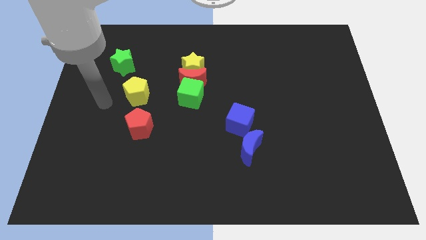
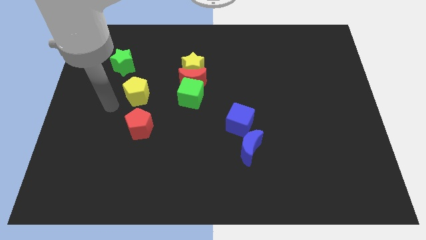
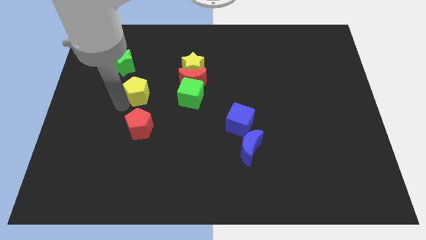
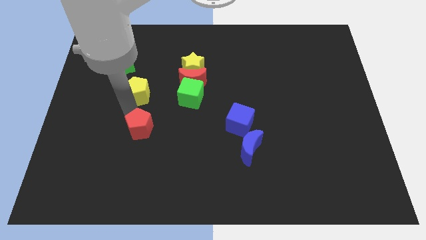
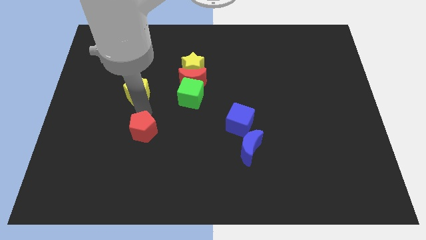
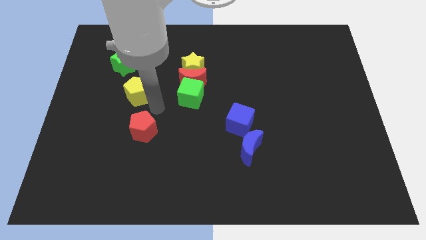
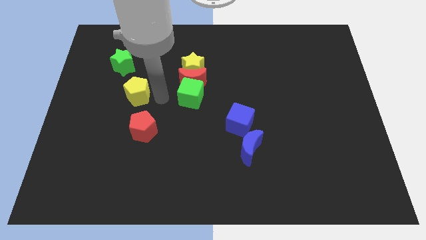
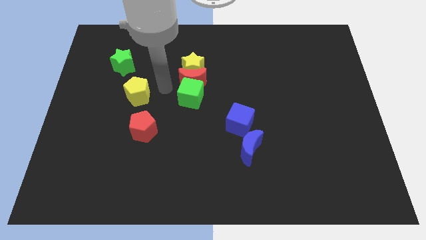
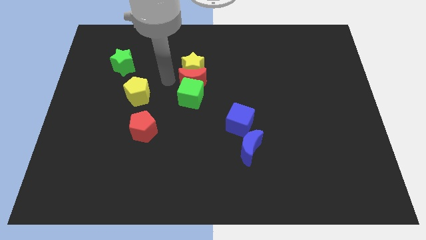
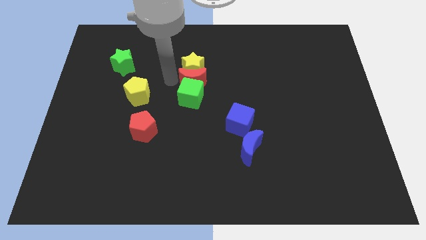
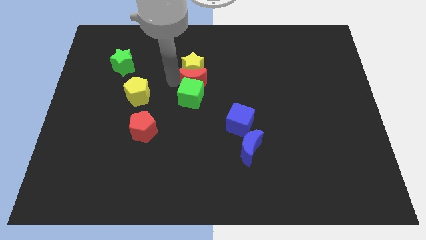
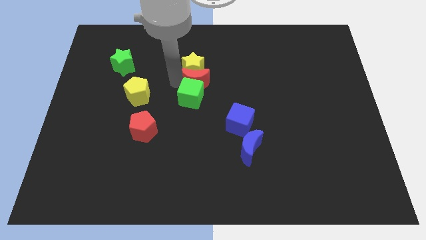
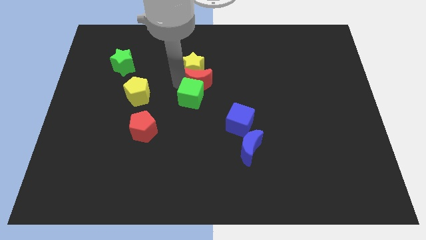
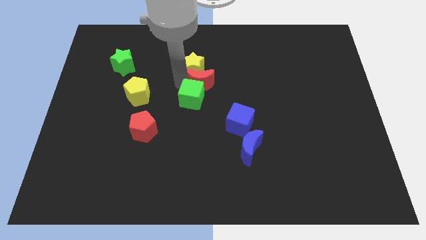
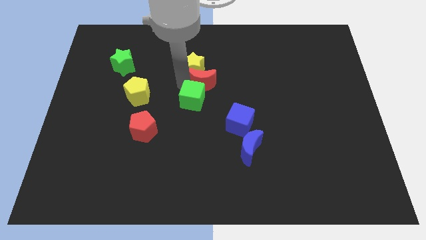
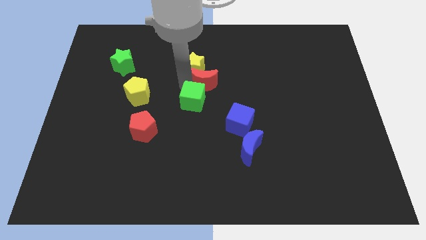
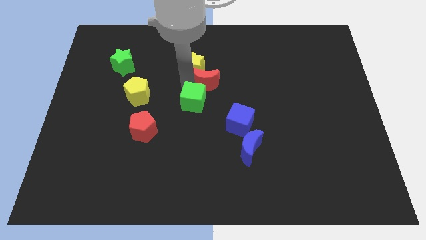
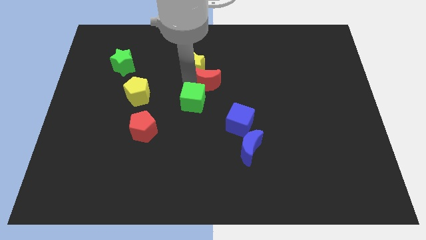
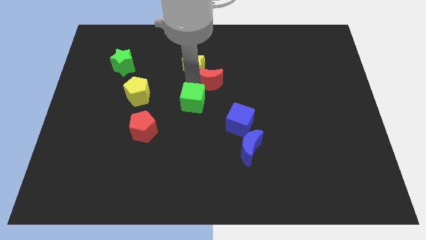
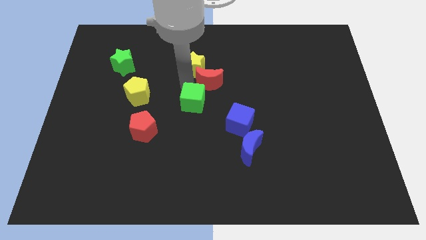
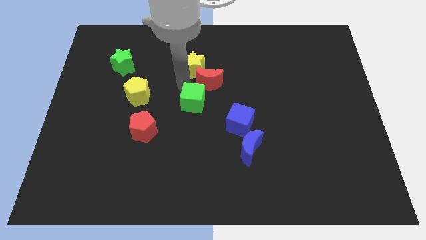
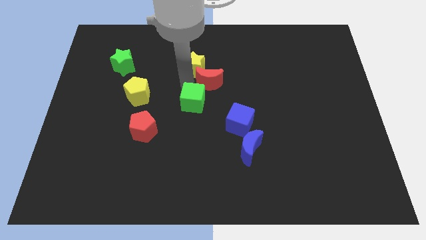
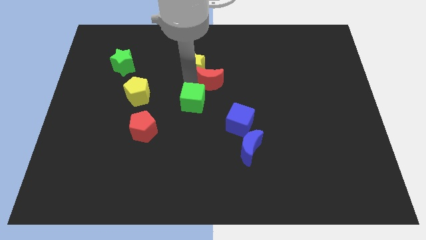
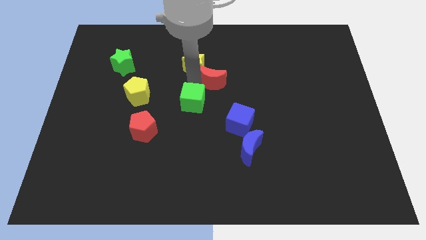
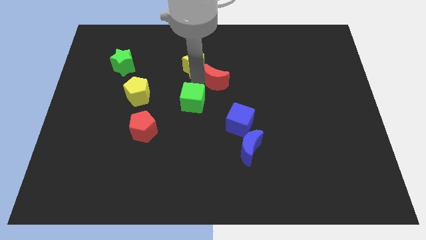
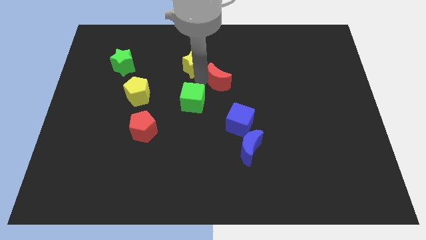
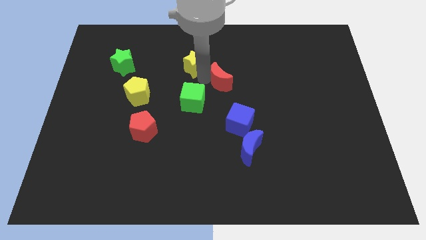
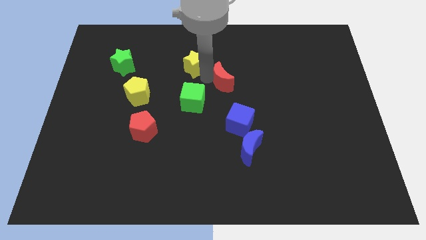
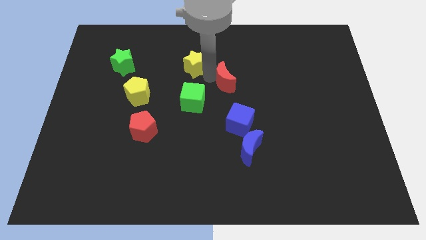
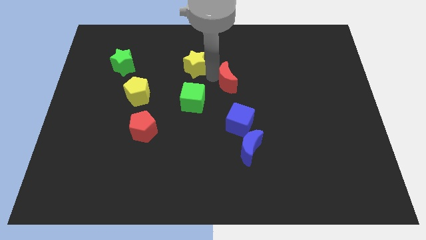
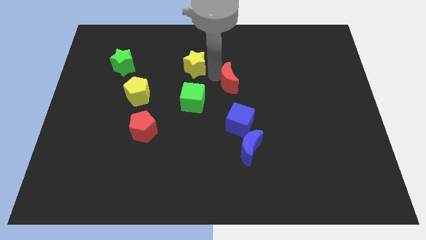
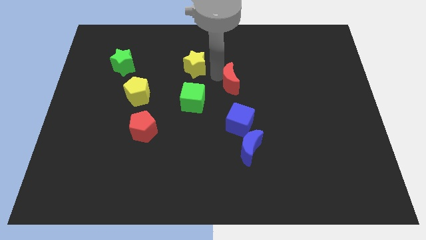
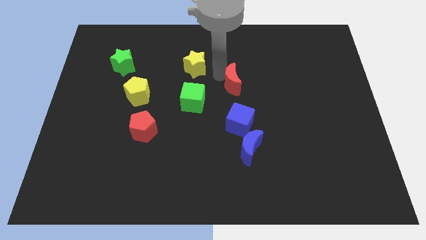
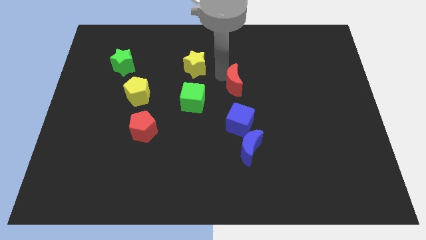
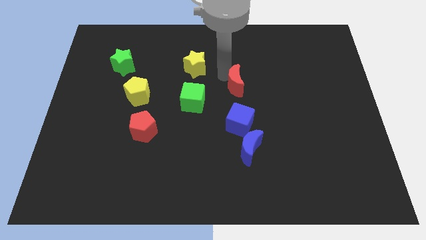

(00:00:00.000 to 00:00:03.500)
pull the red moon apart from the green cube and yellow star

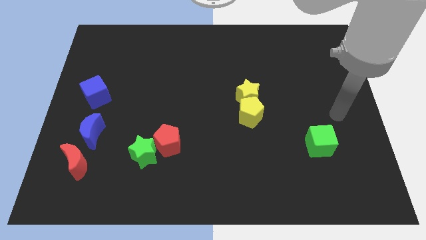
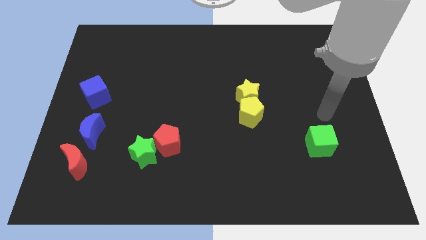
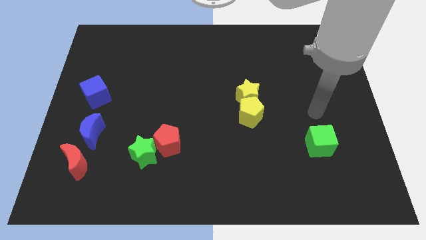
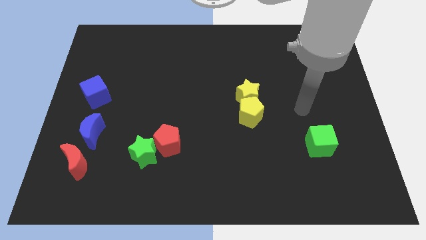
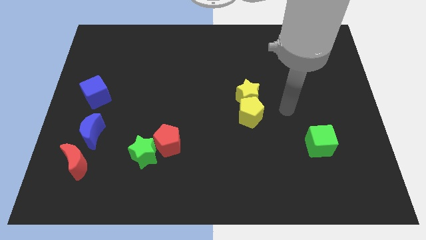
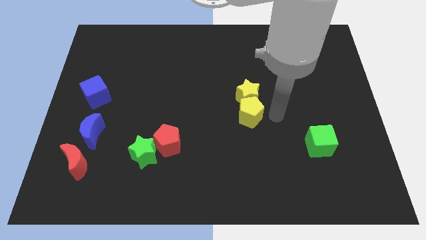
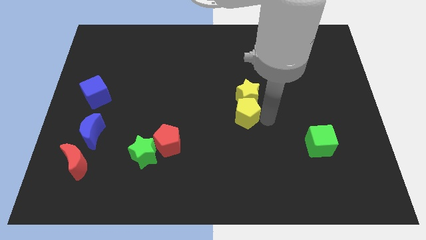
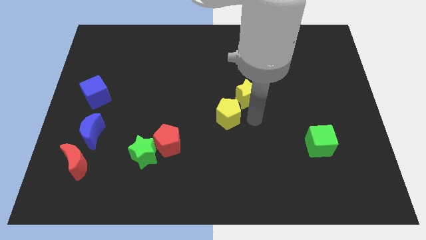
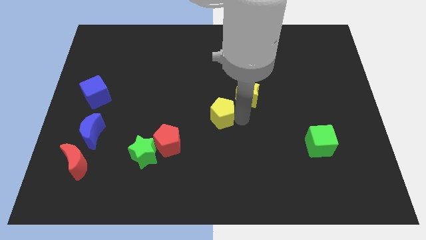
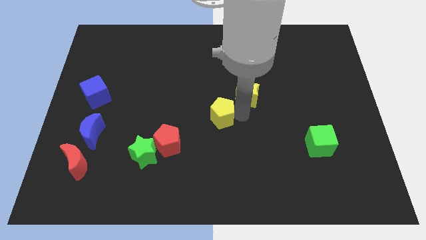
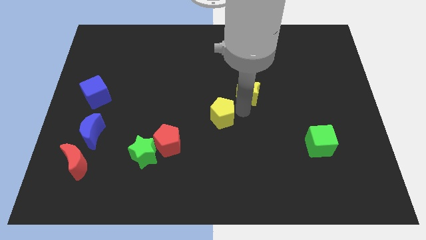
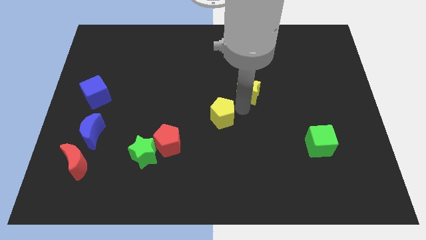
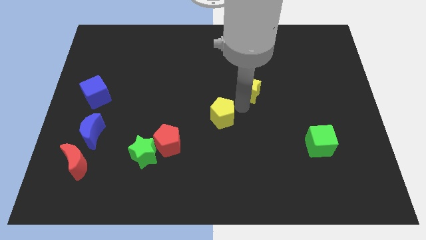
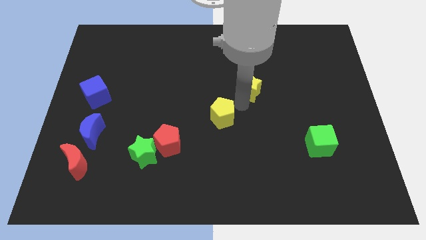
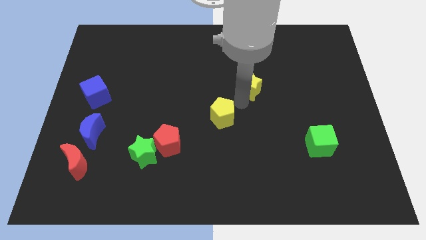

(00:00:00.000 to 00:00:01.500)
pull the yellow star apart from the yellow pentagon

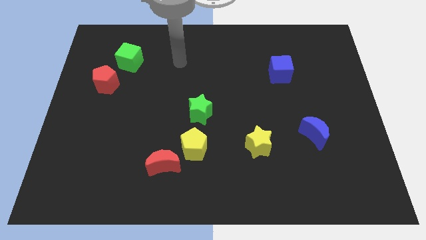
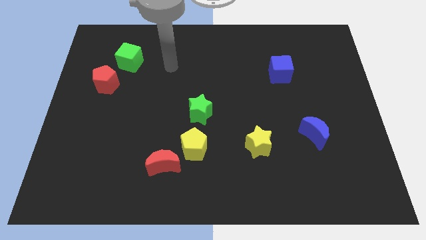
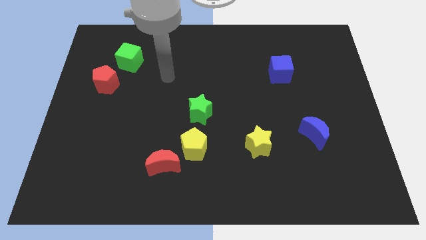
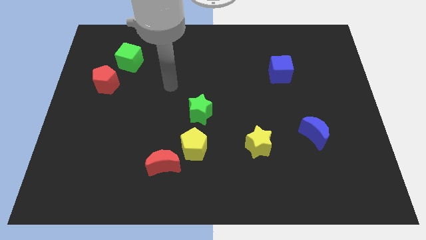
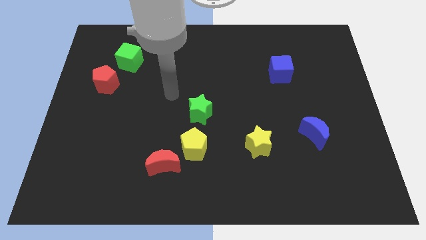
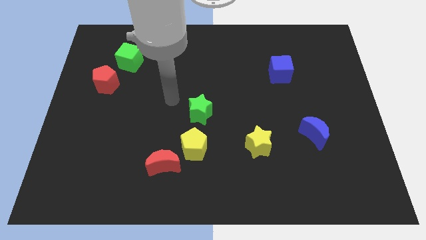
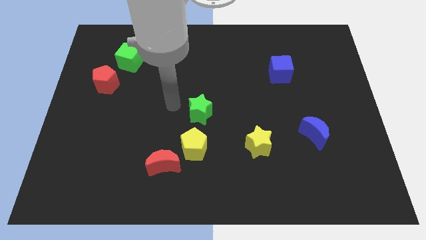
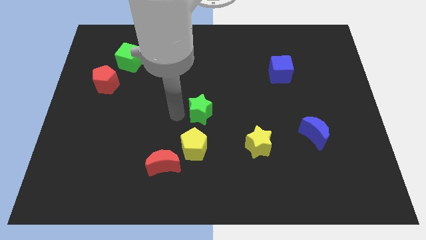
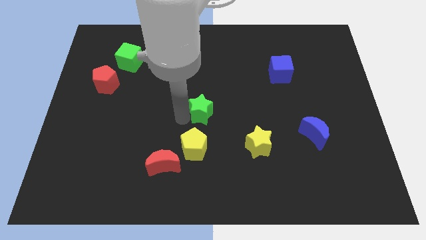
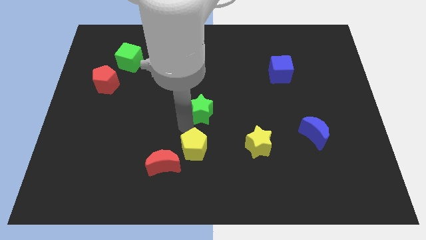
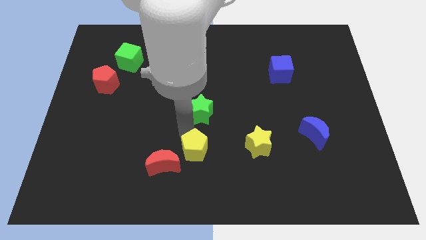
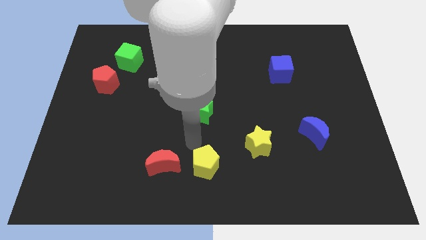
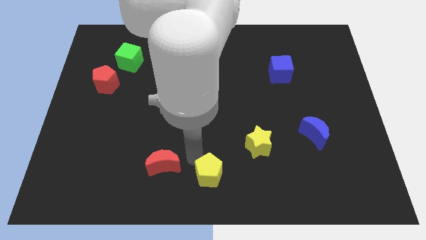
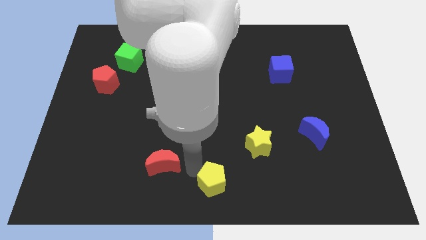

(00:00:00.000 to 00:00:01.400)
pull the red moon apart from the yellow pentagon

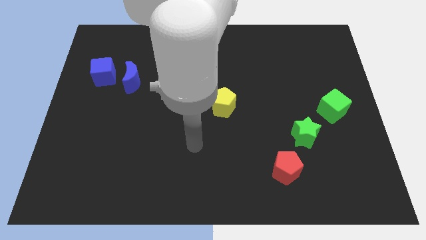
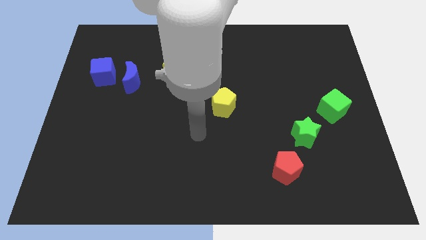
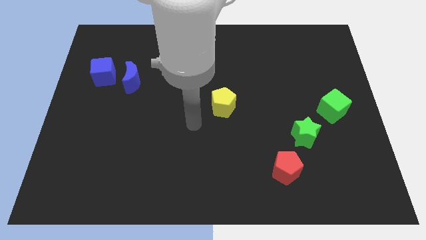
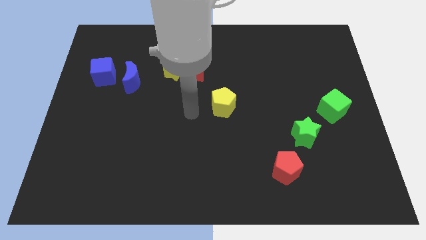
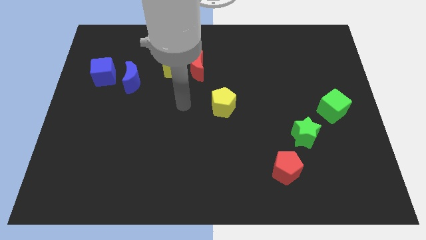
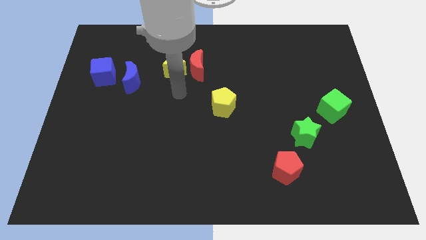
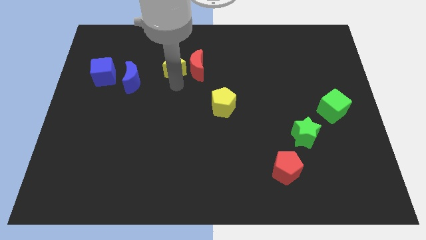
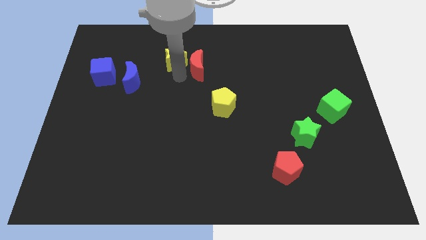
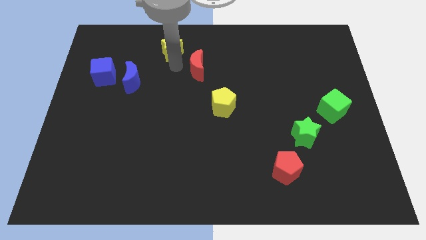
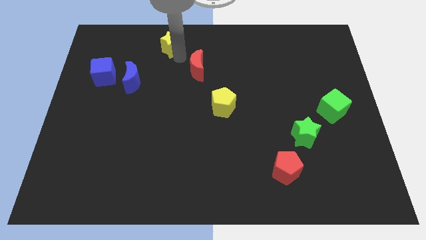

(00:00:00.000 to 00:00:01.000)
pull the red moon apart from the yellow star

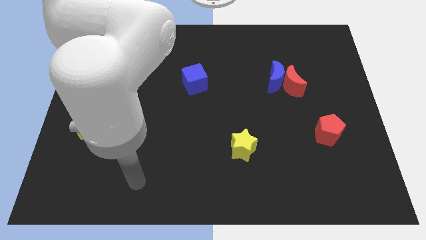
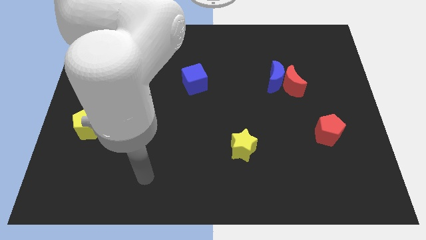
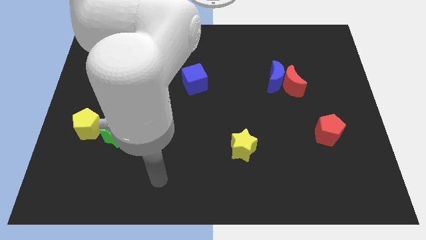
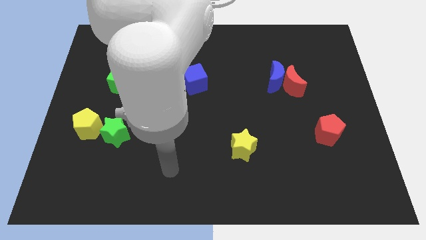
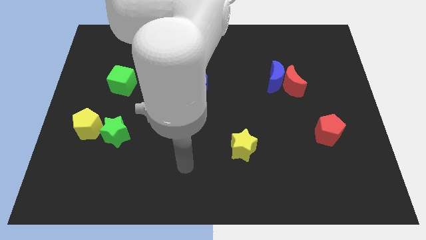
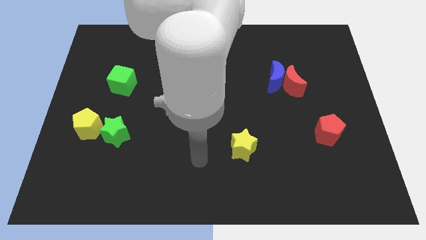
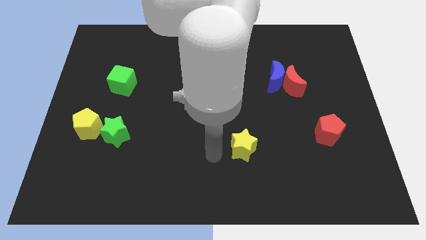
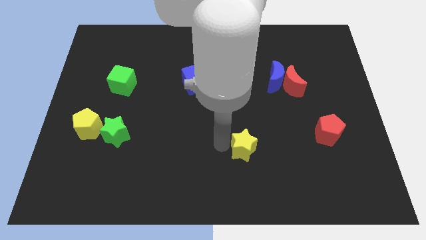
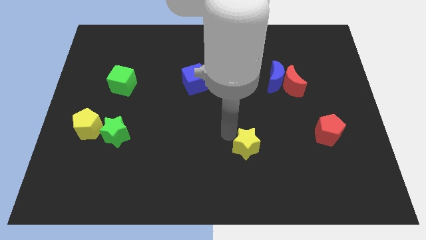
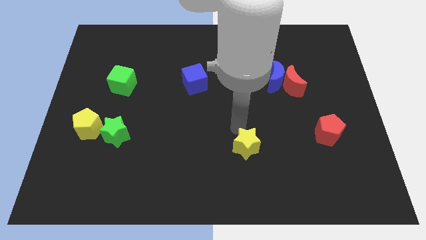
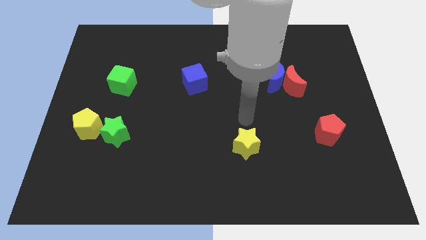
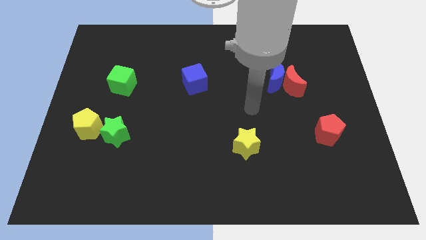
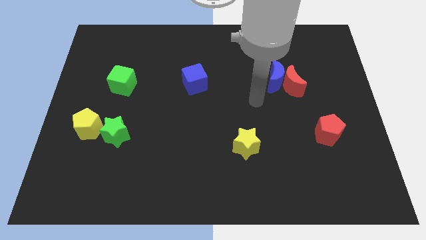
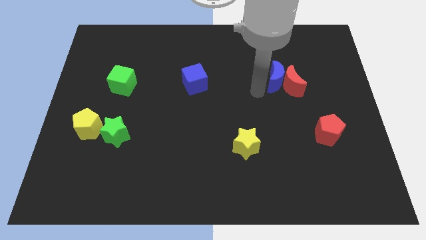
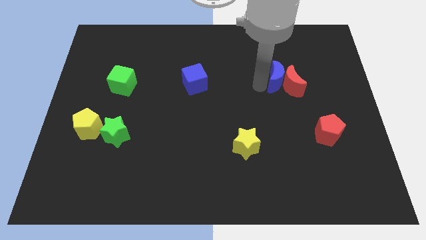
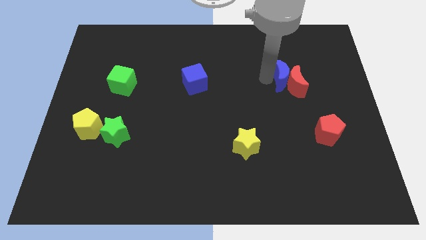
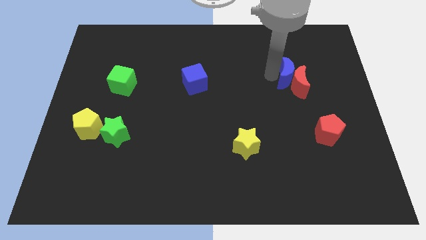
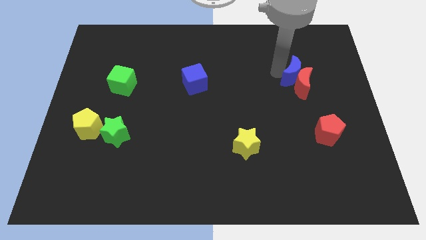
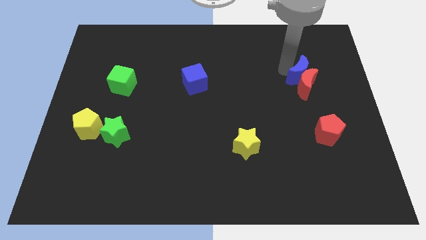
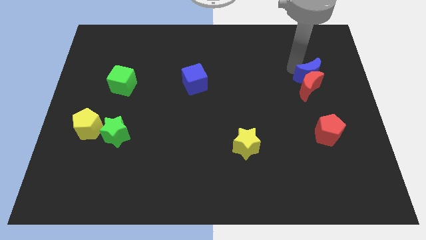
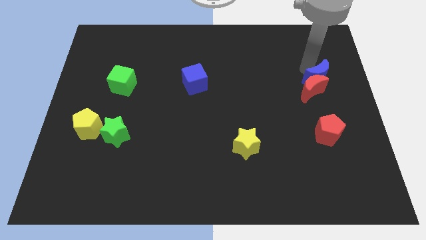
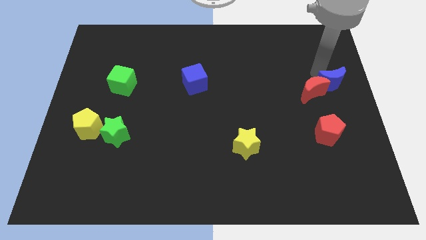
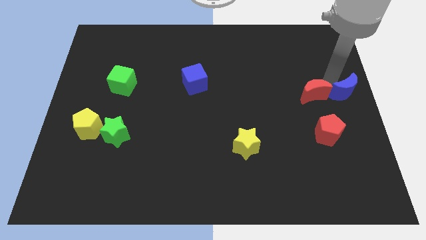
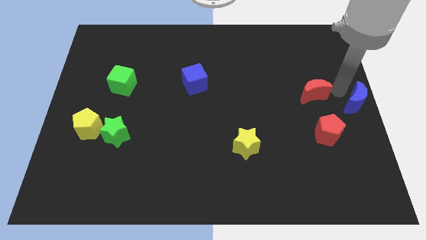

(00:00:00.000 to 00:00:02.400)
separate the red moon from the blue moon
